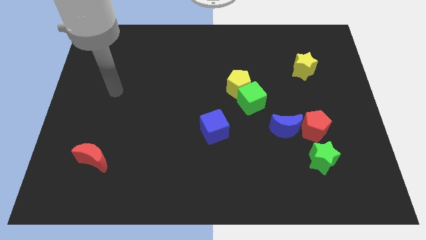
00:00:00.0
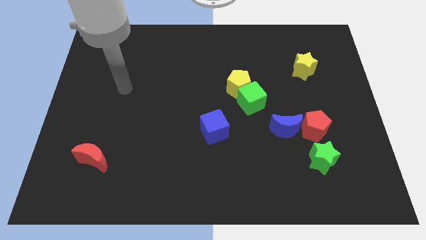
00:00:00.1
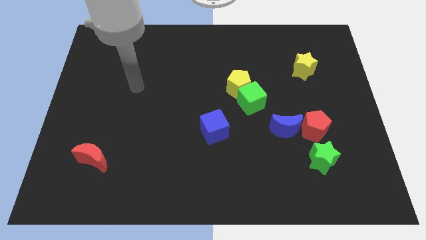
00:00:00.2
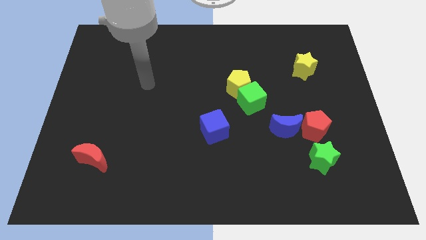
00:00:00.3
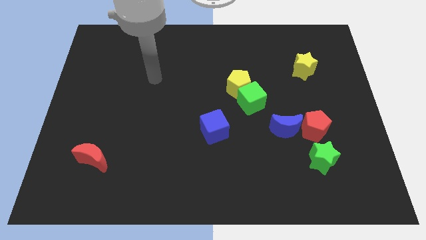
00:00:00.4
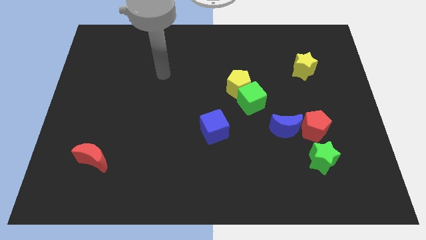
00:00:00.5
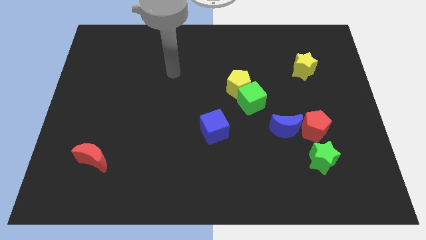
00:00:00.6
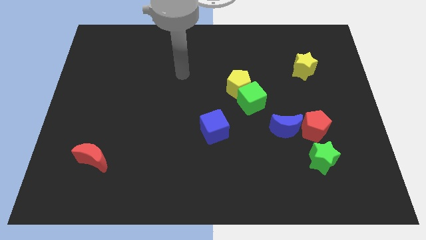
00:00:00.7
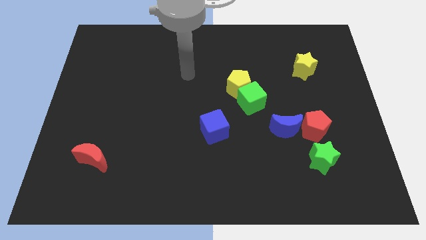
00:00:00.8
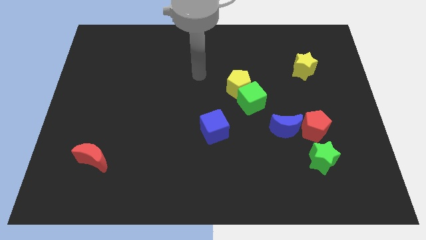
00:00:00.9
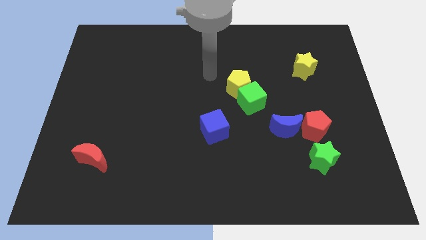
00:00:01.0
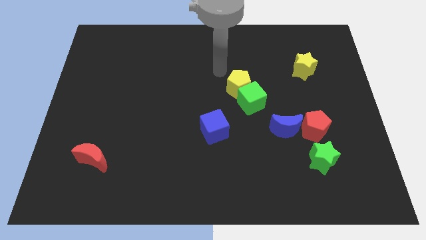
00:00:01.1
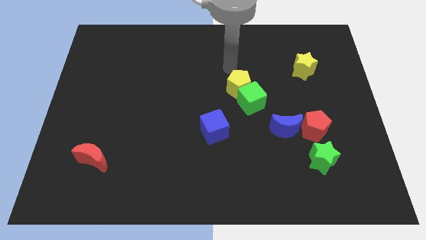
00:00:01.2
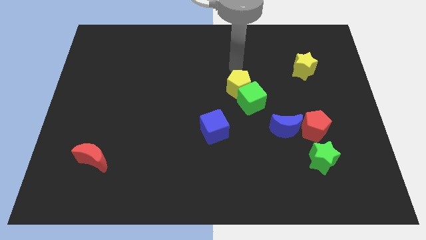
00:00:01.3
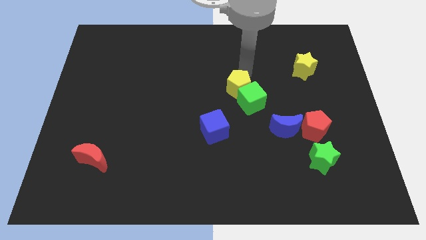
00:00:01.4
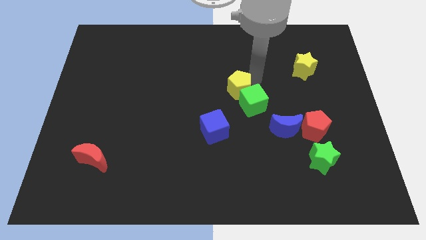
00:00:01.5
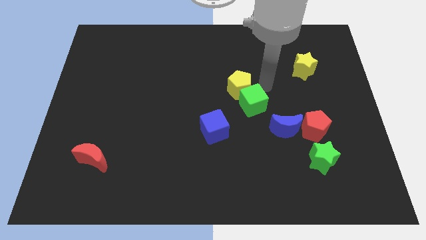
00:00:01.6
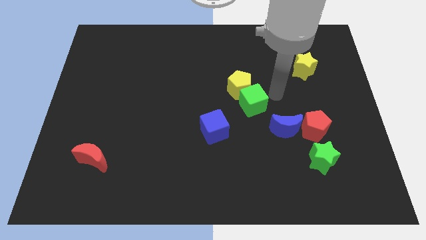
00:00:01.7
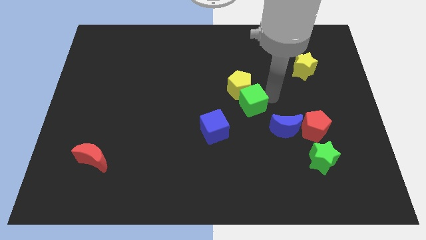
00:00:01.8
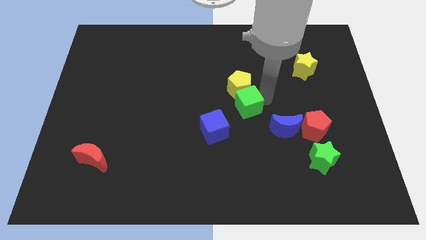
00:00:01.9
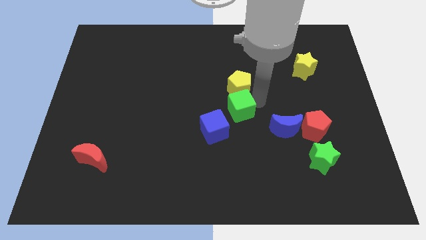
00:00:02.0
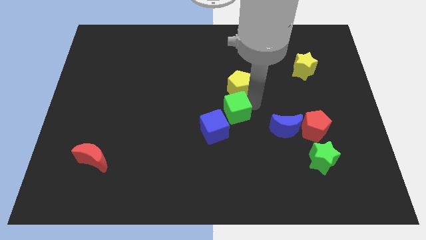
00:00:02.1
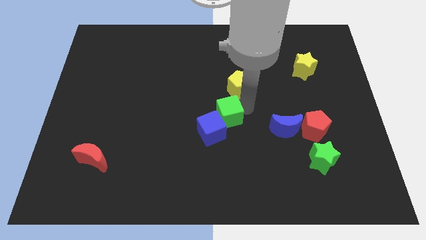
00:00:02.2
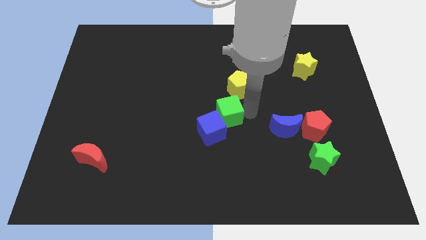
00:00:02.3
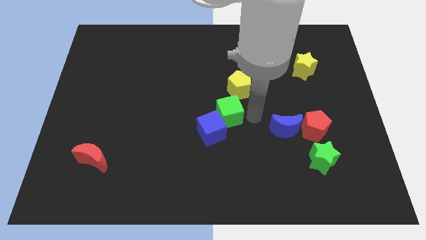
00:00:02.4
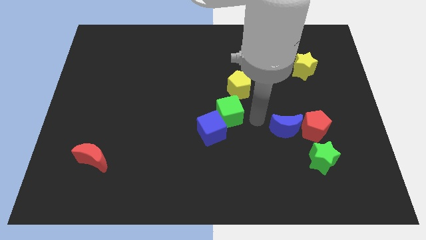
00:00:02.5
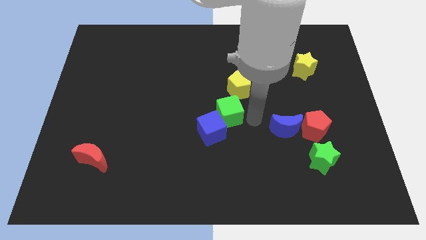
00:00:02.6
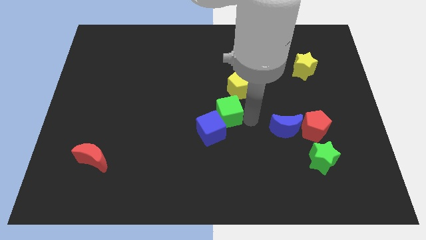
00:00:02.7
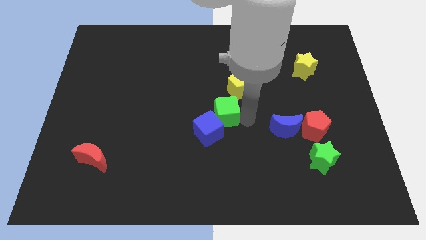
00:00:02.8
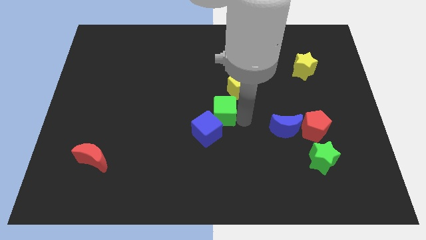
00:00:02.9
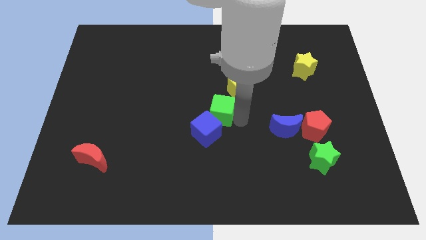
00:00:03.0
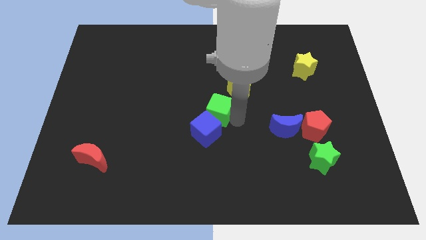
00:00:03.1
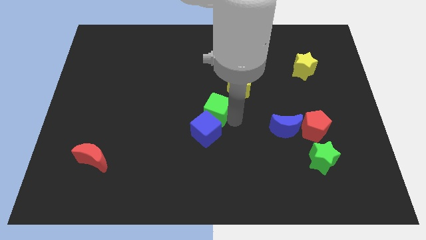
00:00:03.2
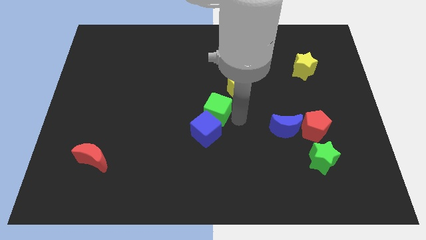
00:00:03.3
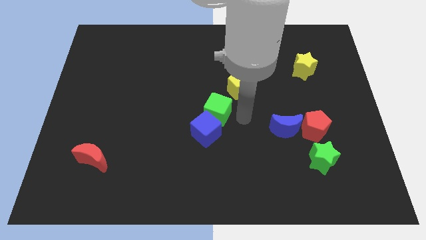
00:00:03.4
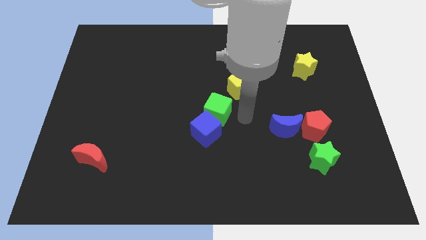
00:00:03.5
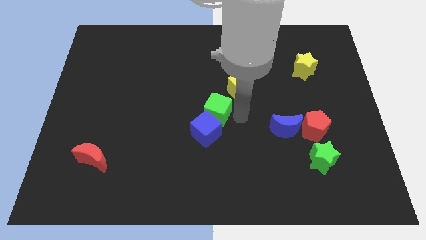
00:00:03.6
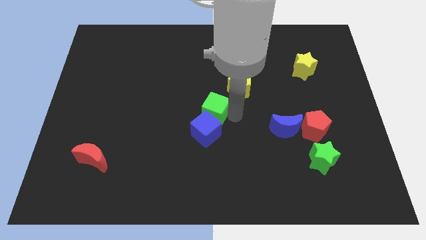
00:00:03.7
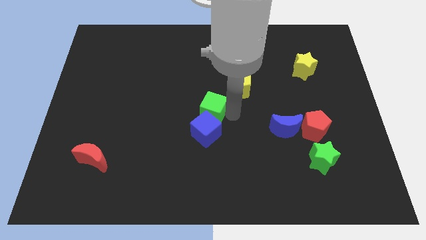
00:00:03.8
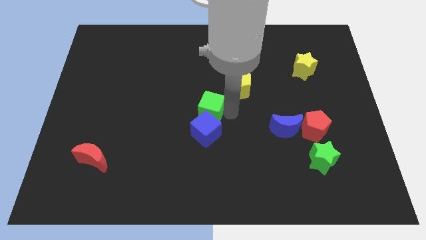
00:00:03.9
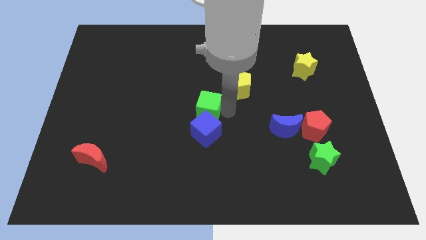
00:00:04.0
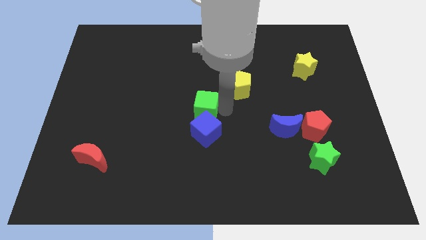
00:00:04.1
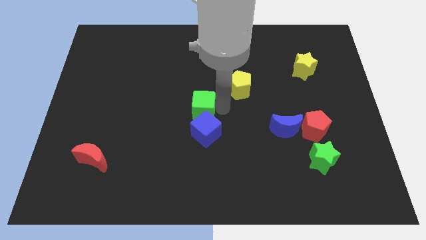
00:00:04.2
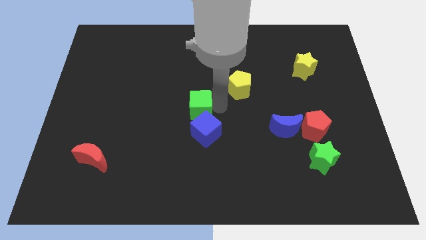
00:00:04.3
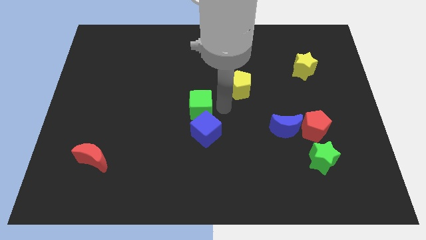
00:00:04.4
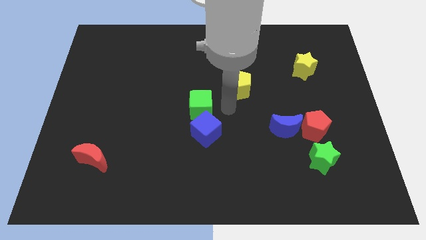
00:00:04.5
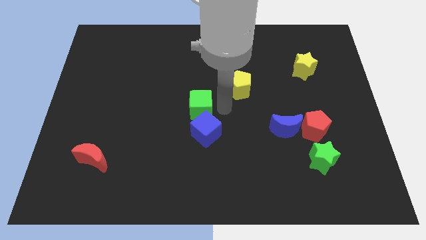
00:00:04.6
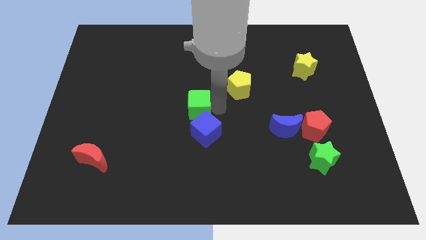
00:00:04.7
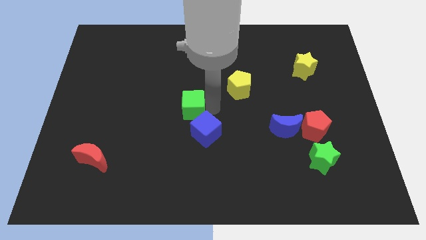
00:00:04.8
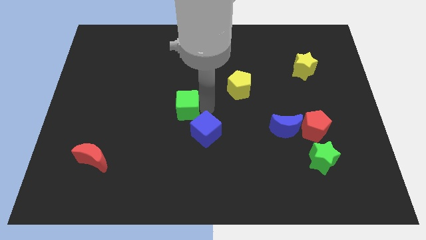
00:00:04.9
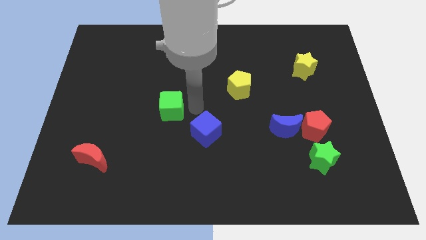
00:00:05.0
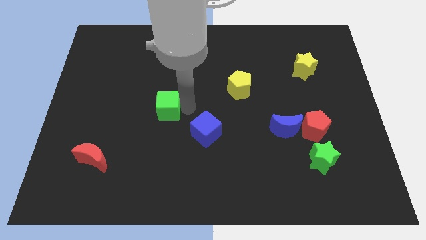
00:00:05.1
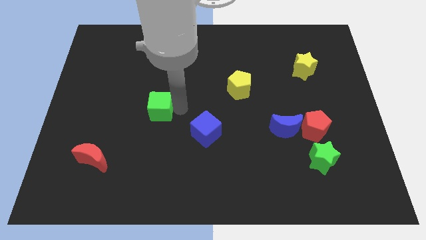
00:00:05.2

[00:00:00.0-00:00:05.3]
slide the green cube left

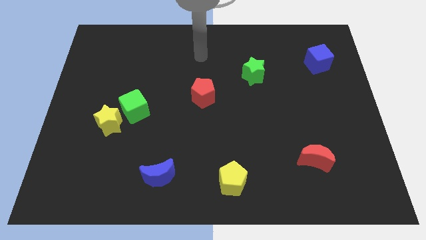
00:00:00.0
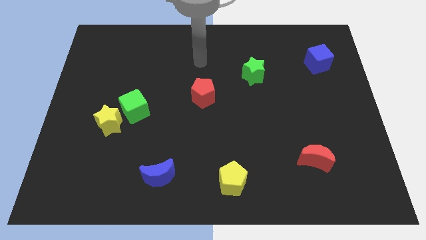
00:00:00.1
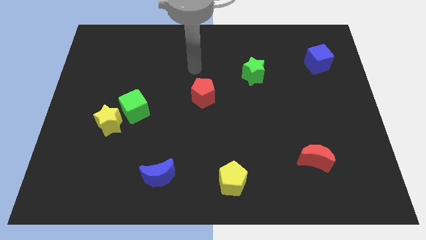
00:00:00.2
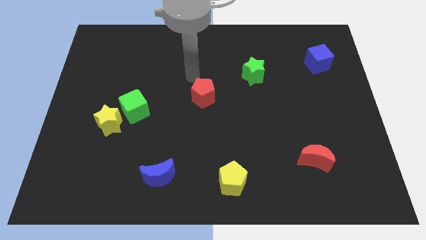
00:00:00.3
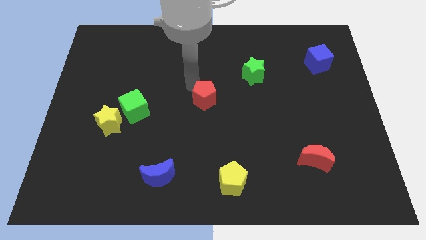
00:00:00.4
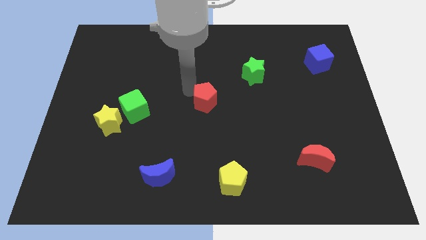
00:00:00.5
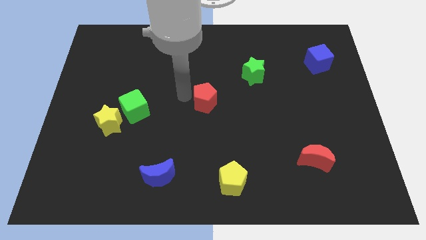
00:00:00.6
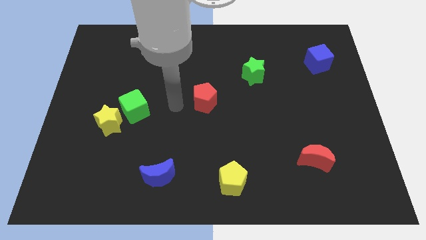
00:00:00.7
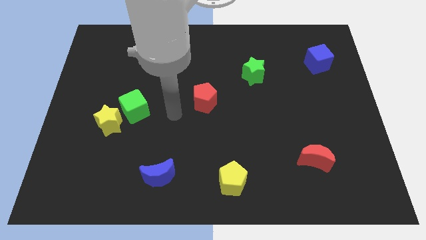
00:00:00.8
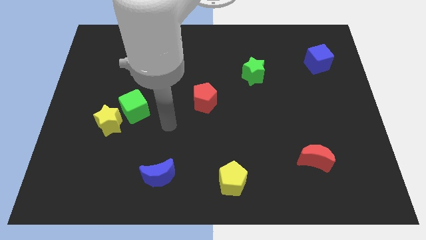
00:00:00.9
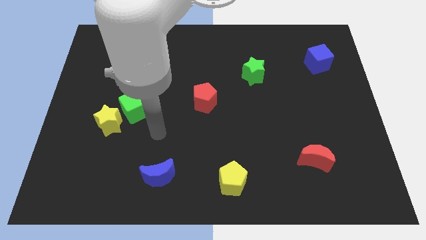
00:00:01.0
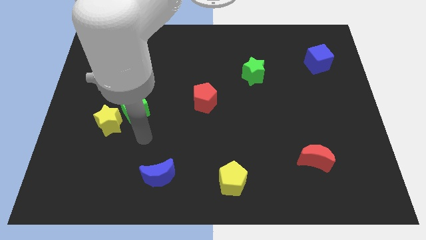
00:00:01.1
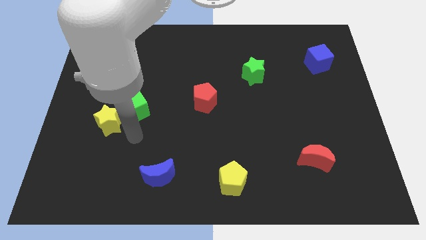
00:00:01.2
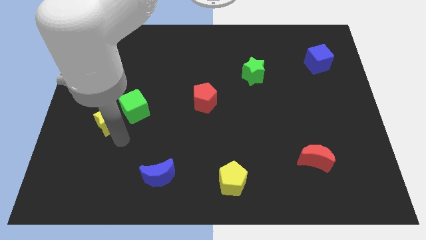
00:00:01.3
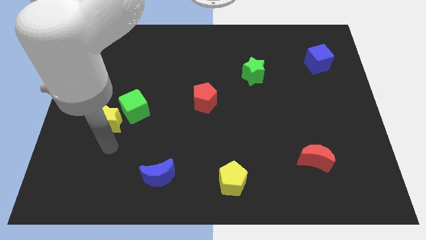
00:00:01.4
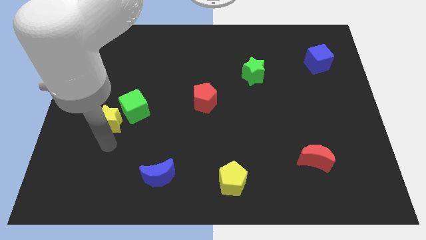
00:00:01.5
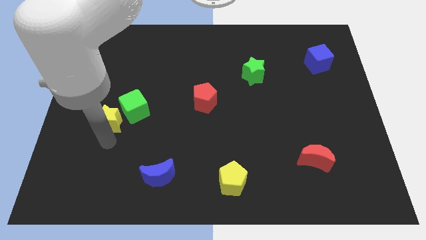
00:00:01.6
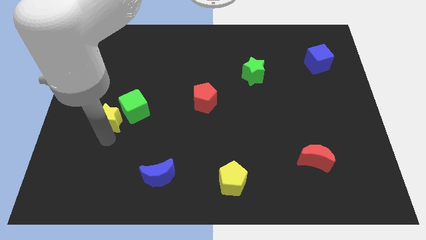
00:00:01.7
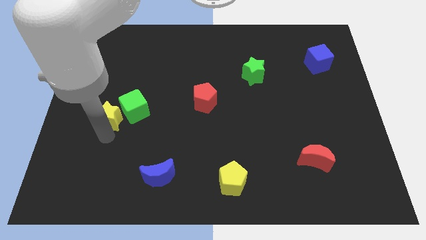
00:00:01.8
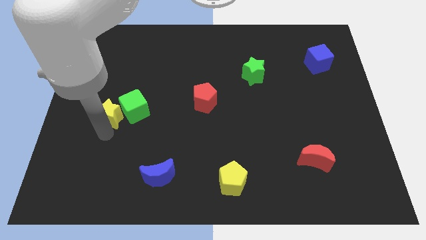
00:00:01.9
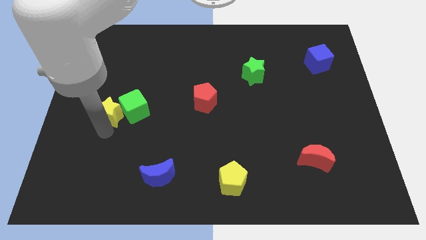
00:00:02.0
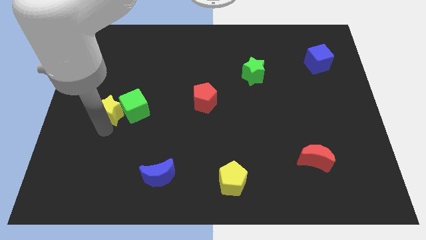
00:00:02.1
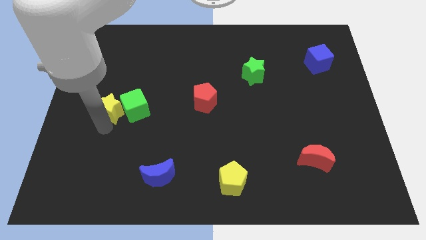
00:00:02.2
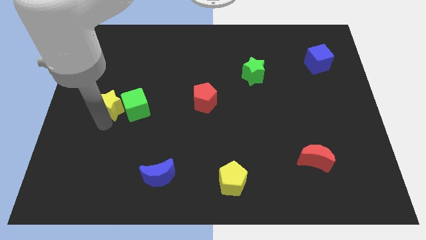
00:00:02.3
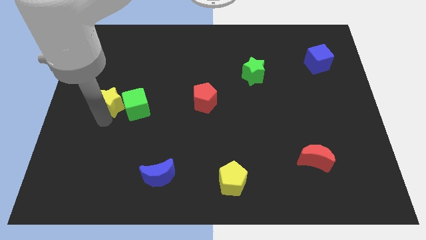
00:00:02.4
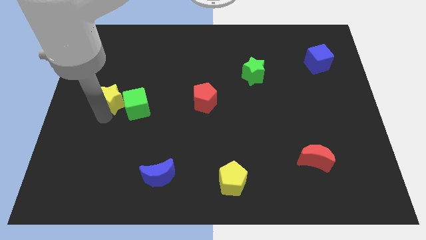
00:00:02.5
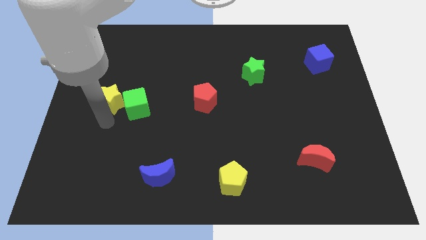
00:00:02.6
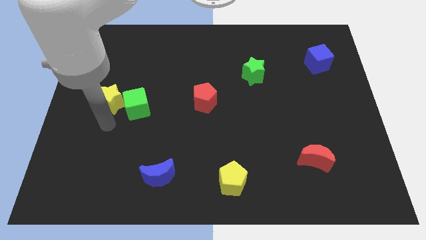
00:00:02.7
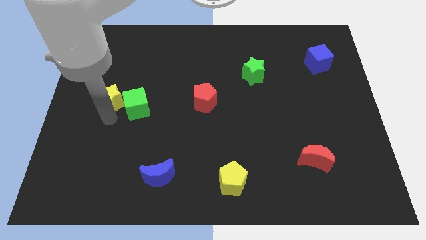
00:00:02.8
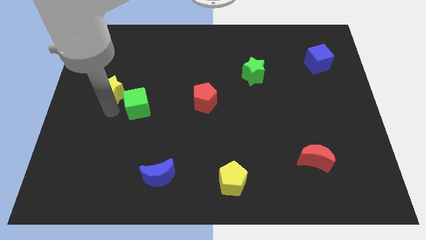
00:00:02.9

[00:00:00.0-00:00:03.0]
move the yellow star up a little

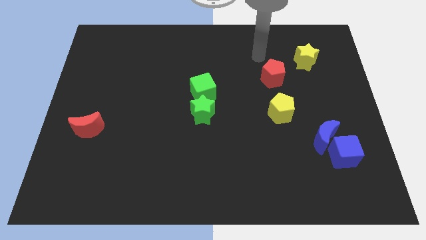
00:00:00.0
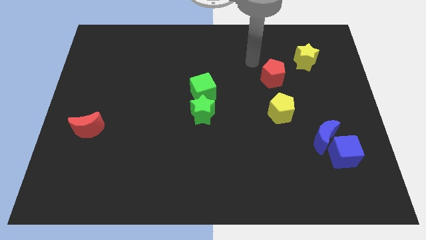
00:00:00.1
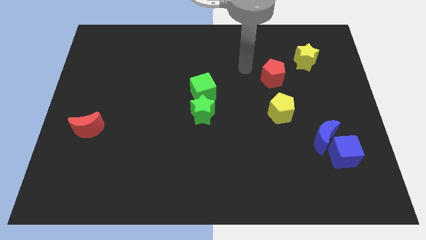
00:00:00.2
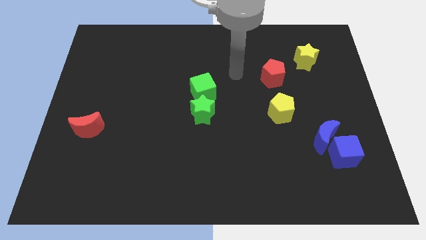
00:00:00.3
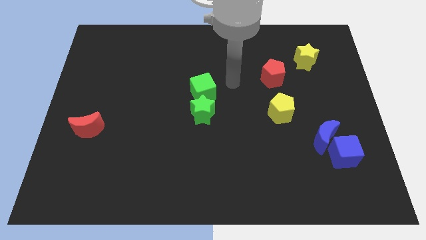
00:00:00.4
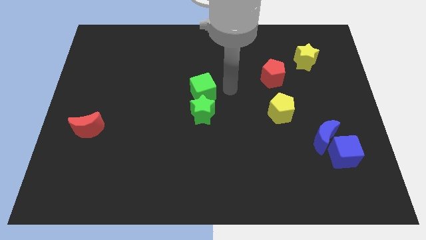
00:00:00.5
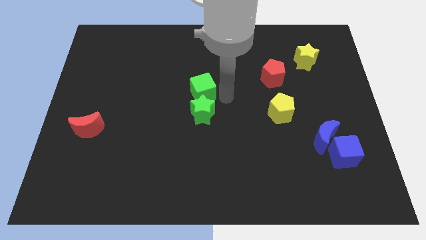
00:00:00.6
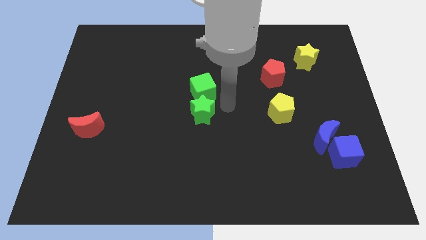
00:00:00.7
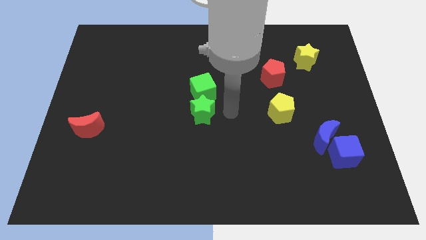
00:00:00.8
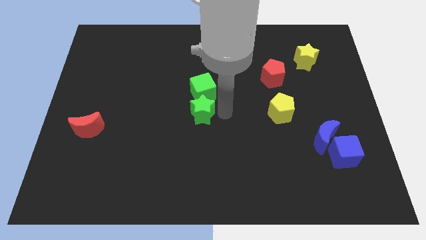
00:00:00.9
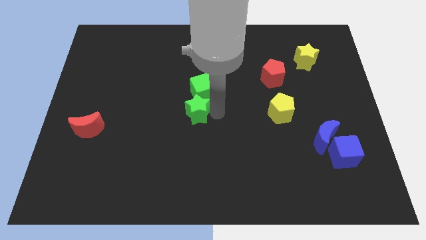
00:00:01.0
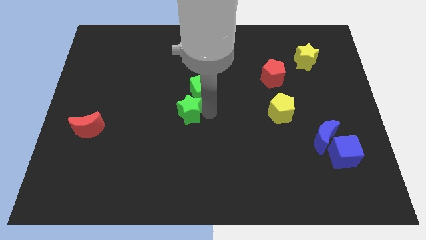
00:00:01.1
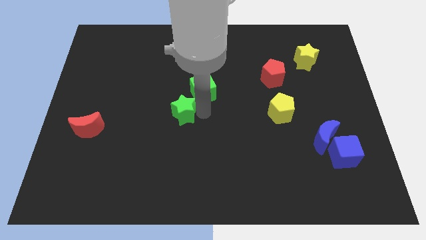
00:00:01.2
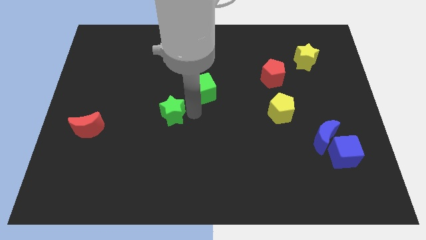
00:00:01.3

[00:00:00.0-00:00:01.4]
slide the green star to the left a little
